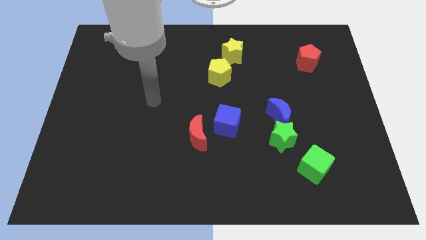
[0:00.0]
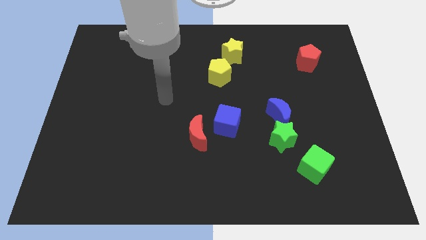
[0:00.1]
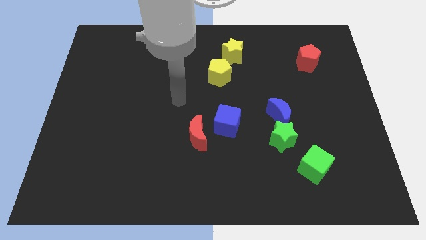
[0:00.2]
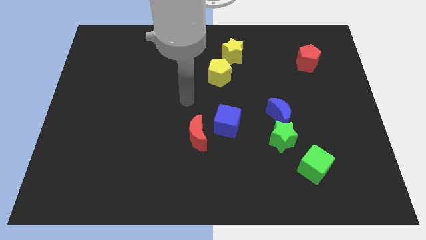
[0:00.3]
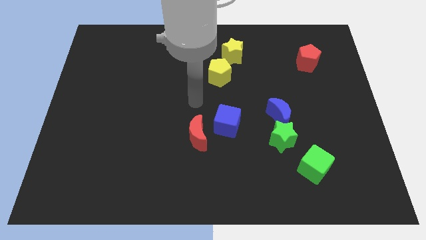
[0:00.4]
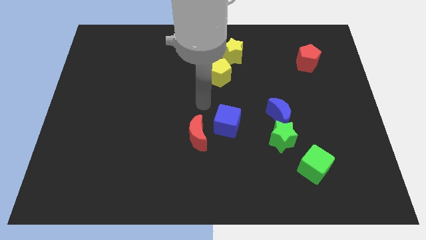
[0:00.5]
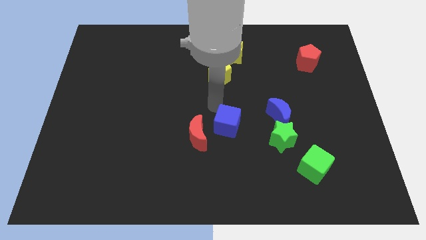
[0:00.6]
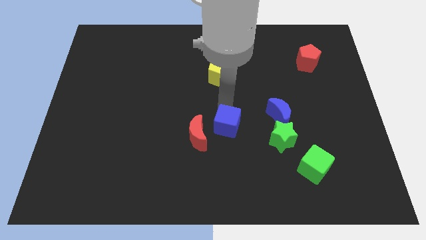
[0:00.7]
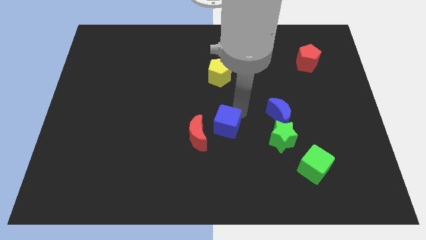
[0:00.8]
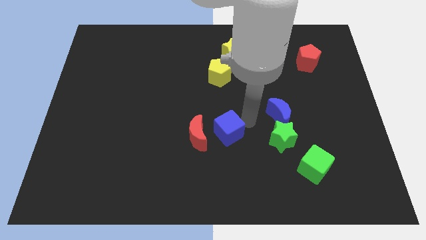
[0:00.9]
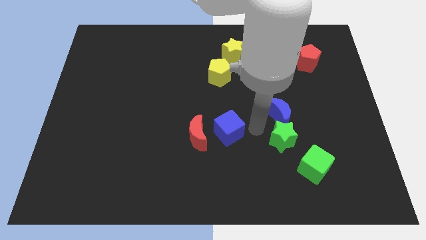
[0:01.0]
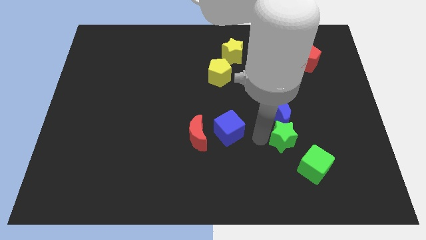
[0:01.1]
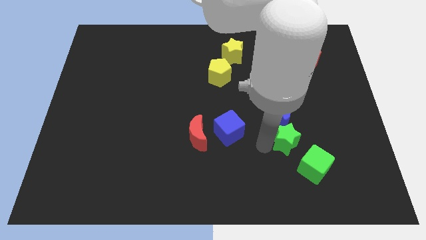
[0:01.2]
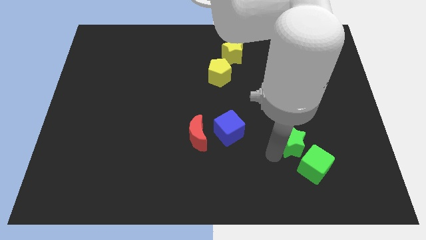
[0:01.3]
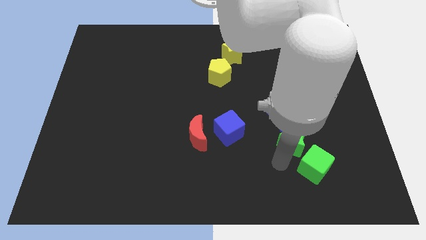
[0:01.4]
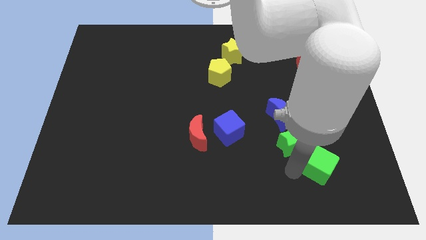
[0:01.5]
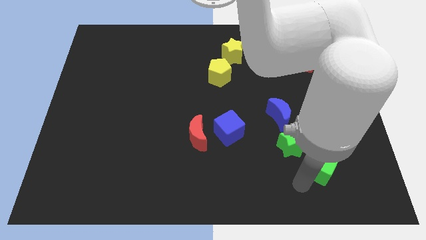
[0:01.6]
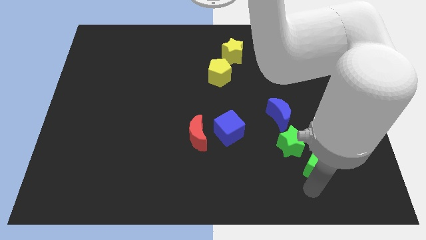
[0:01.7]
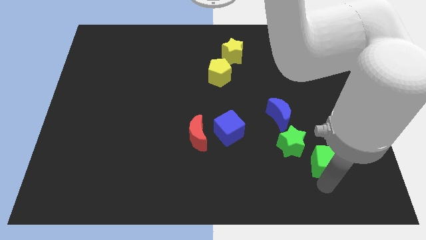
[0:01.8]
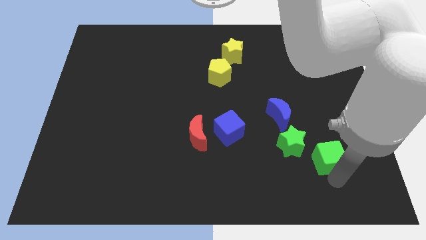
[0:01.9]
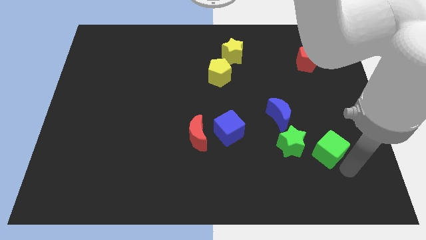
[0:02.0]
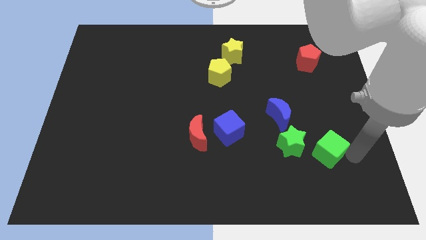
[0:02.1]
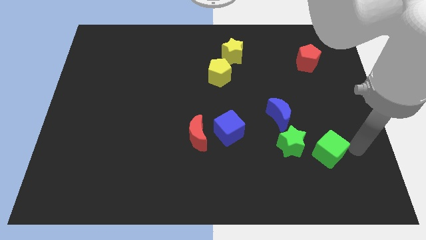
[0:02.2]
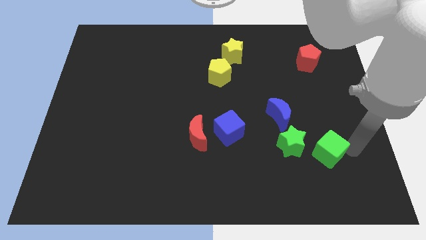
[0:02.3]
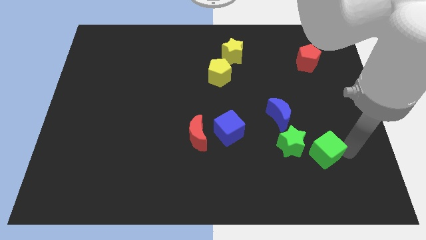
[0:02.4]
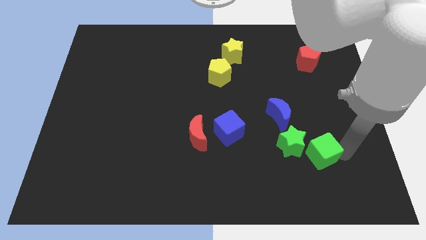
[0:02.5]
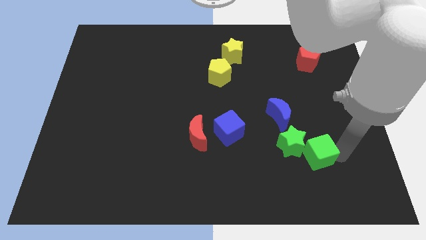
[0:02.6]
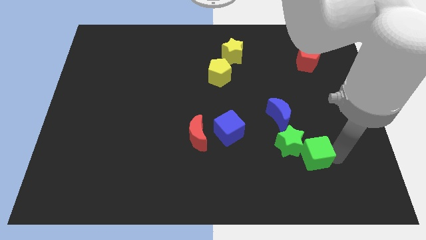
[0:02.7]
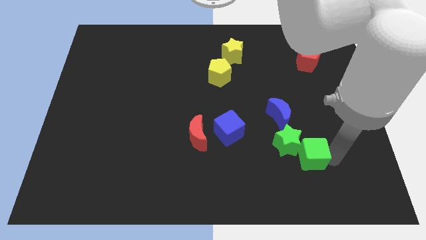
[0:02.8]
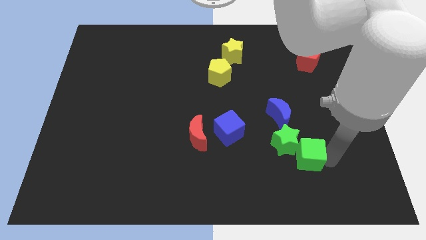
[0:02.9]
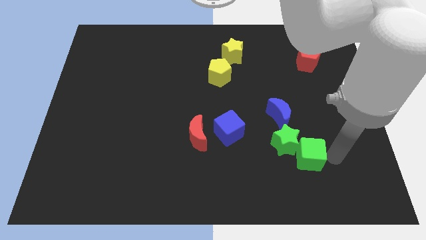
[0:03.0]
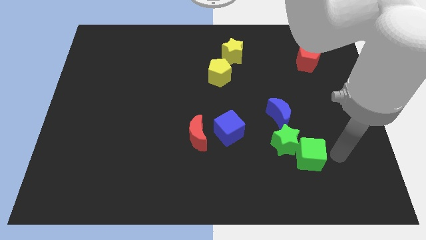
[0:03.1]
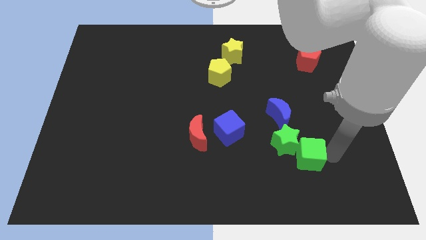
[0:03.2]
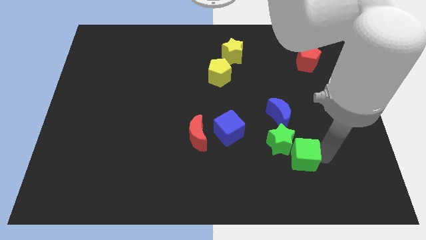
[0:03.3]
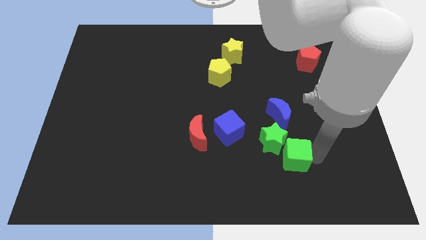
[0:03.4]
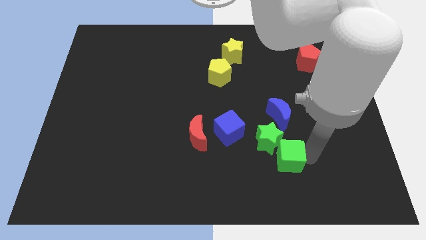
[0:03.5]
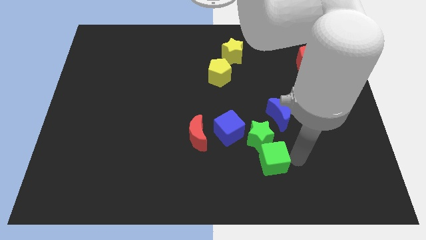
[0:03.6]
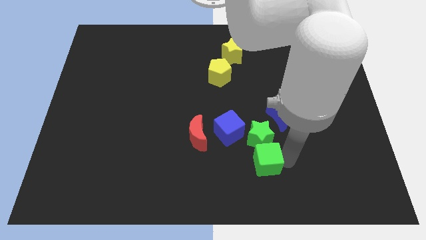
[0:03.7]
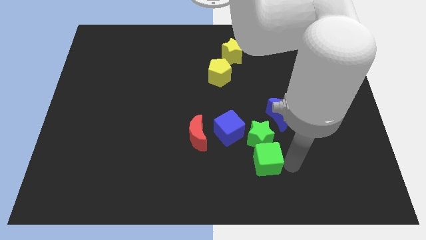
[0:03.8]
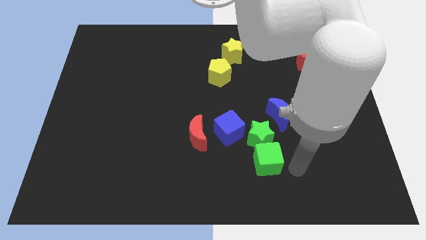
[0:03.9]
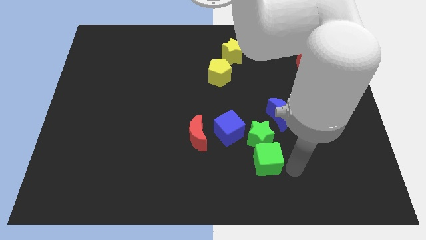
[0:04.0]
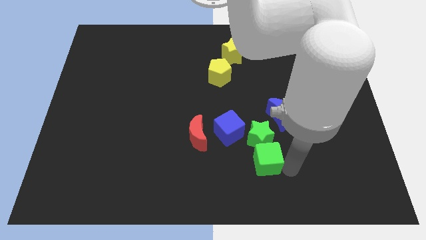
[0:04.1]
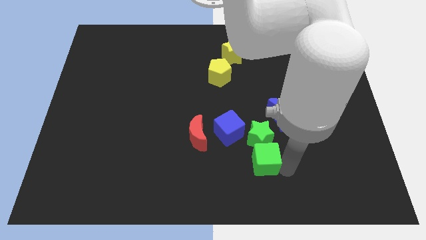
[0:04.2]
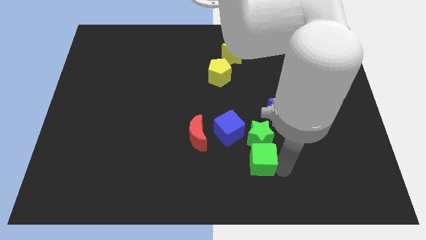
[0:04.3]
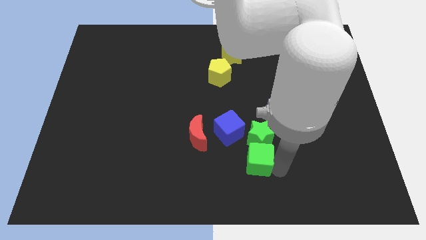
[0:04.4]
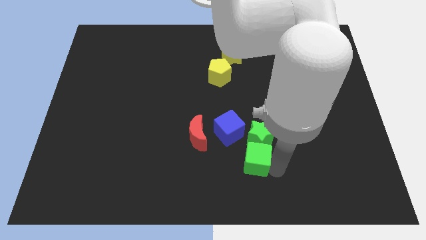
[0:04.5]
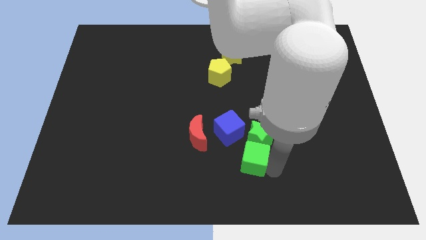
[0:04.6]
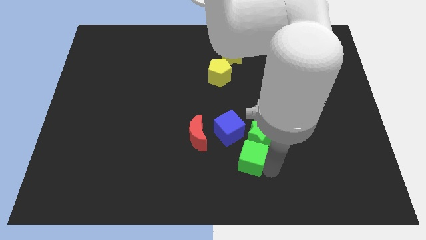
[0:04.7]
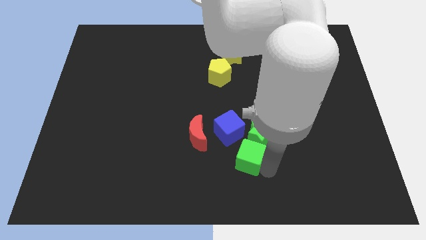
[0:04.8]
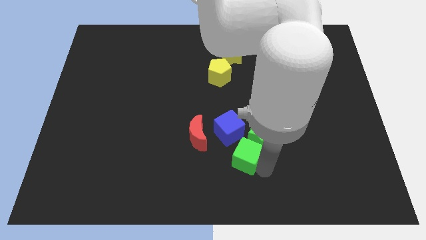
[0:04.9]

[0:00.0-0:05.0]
push the green cube to the bottom right of the red moon

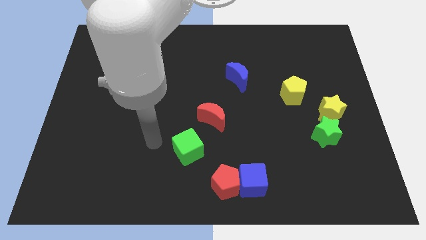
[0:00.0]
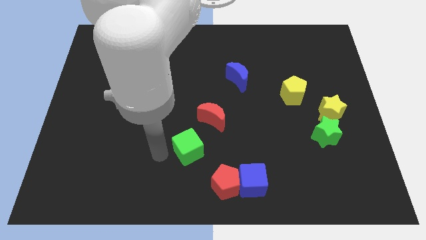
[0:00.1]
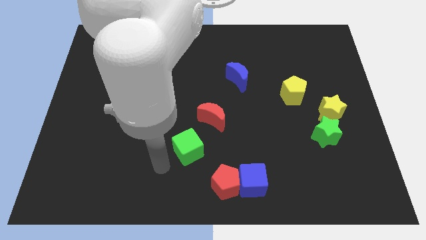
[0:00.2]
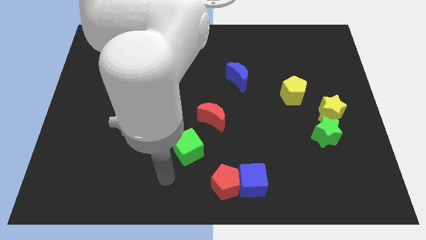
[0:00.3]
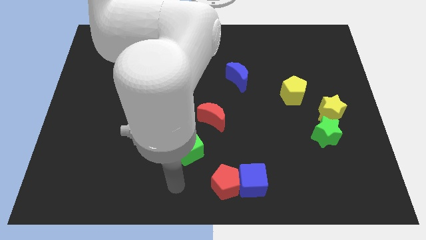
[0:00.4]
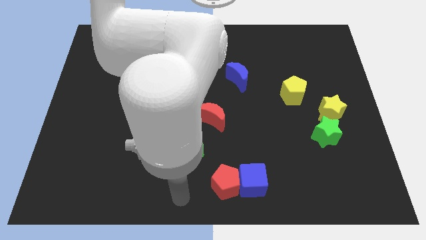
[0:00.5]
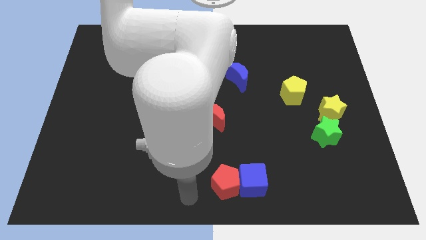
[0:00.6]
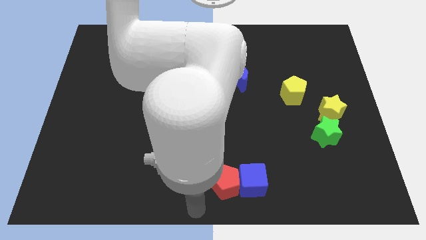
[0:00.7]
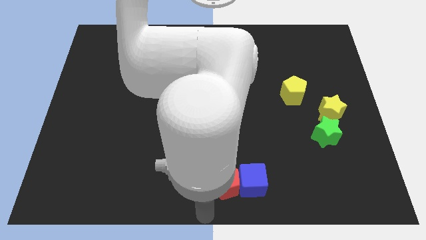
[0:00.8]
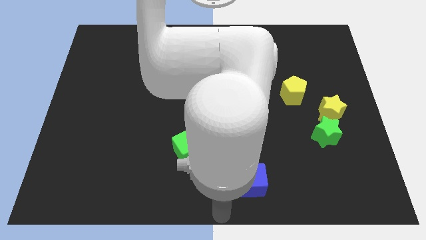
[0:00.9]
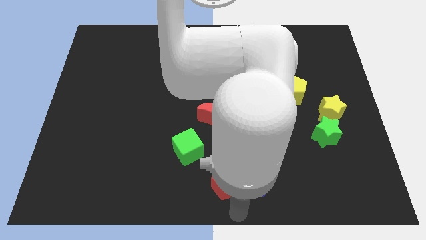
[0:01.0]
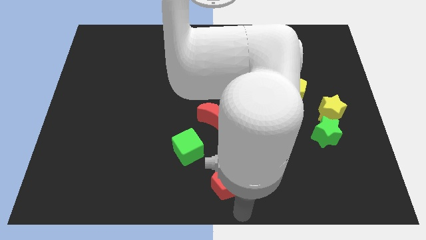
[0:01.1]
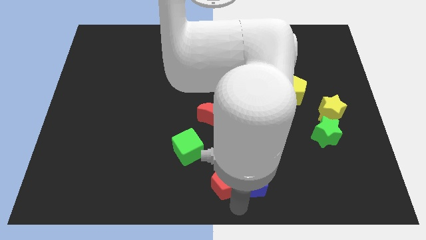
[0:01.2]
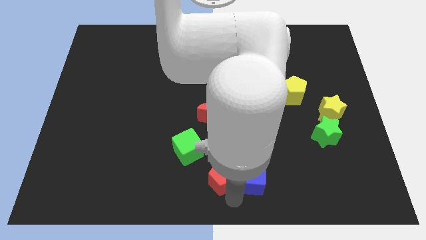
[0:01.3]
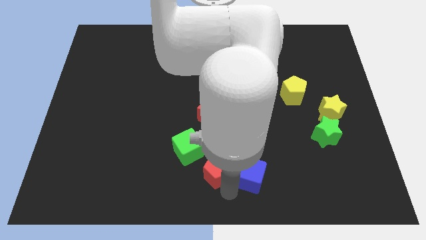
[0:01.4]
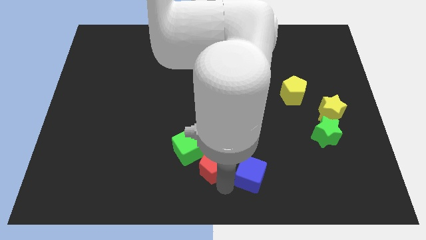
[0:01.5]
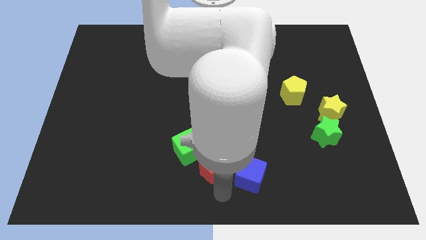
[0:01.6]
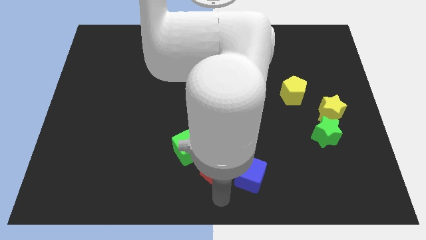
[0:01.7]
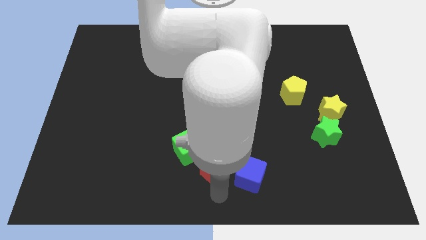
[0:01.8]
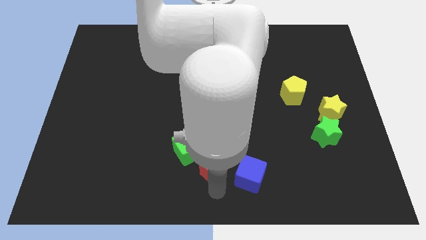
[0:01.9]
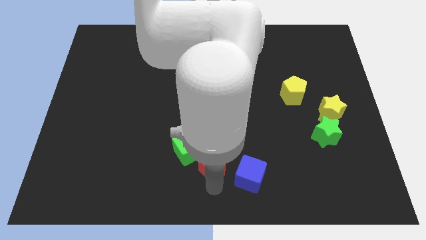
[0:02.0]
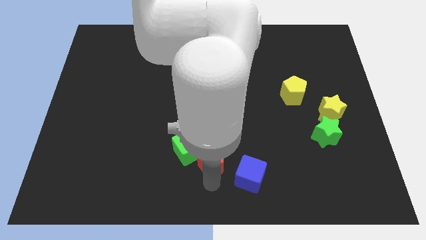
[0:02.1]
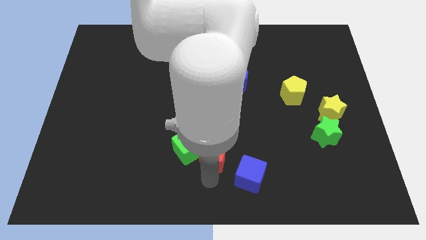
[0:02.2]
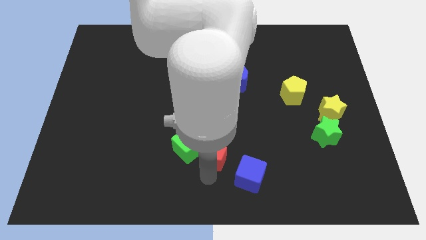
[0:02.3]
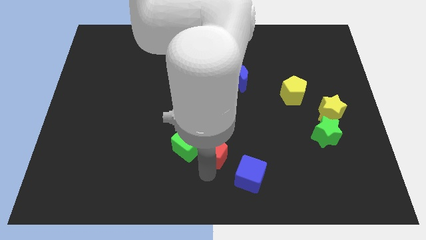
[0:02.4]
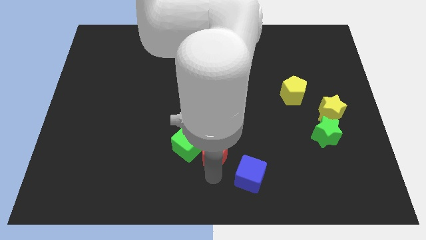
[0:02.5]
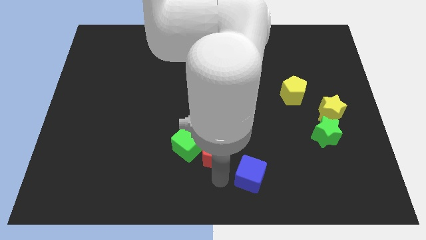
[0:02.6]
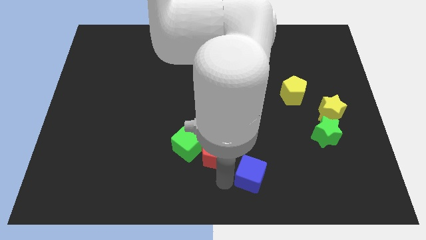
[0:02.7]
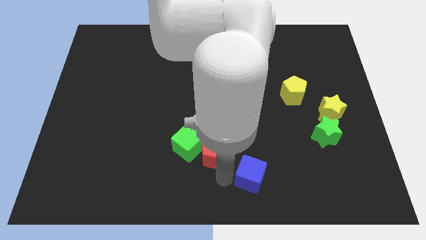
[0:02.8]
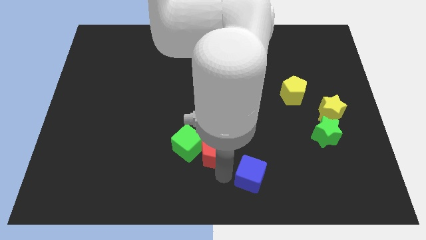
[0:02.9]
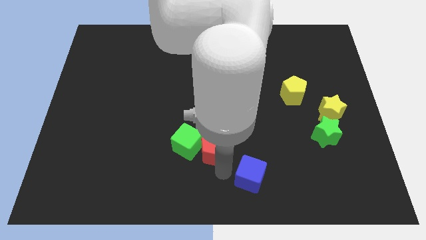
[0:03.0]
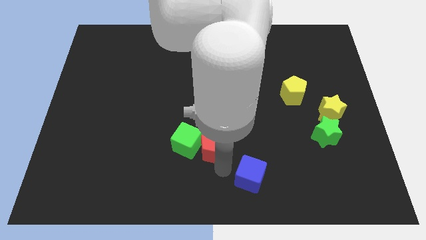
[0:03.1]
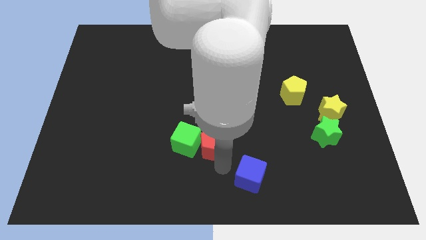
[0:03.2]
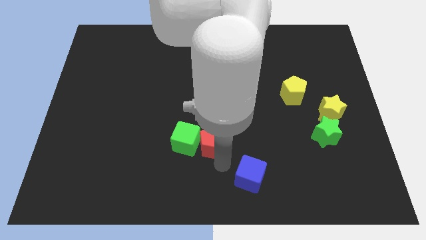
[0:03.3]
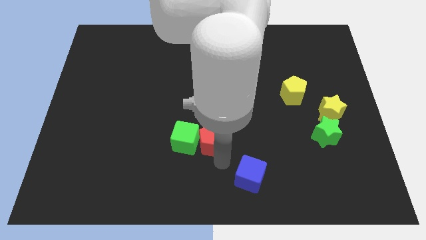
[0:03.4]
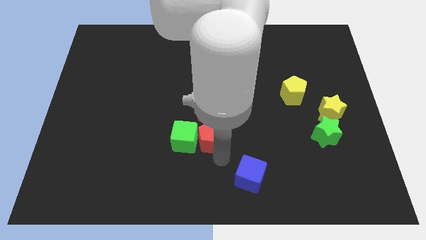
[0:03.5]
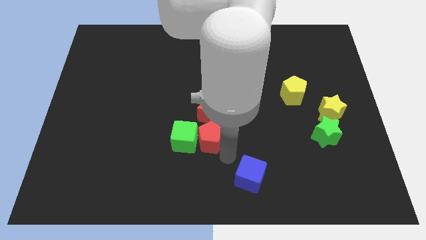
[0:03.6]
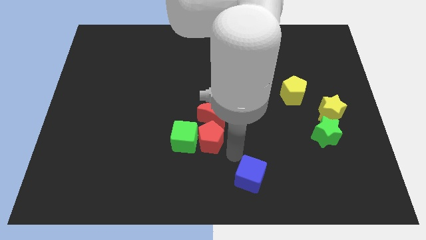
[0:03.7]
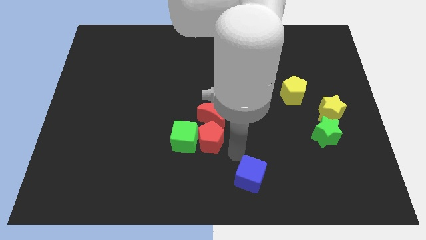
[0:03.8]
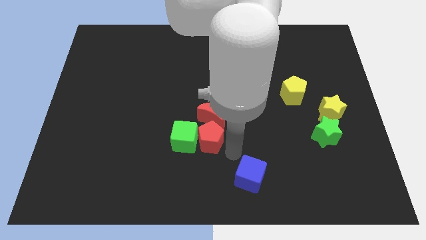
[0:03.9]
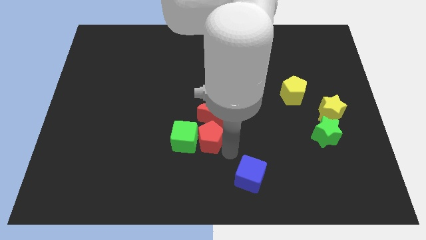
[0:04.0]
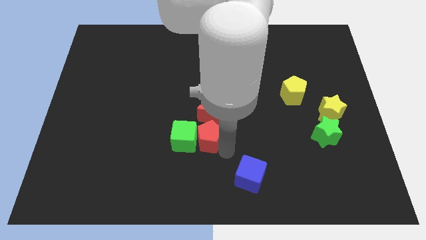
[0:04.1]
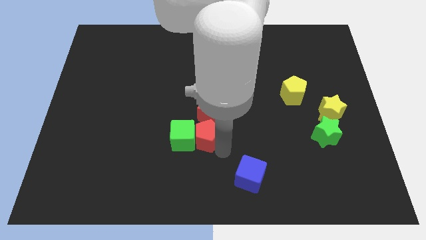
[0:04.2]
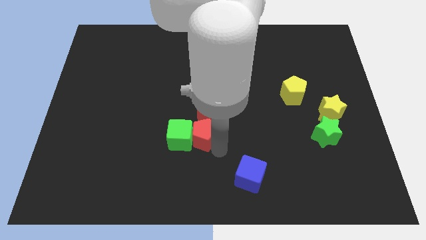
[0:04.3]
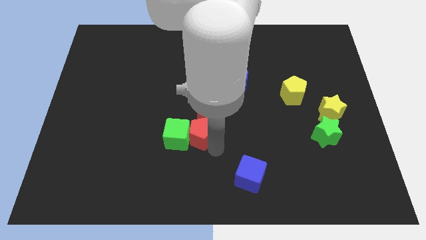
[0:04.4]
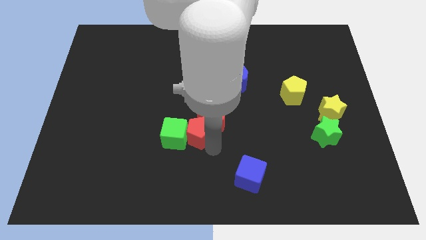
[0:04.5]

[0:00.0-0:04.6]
put the red pentagon to the left side of the red moon
